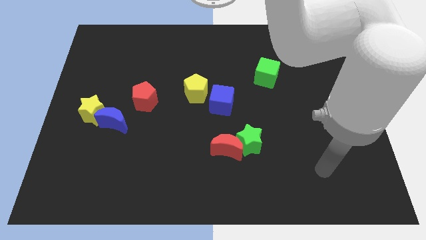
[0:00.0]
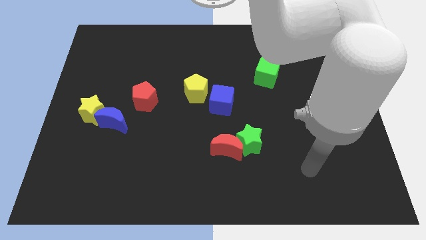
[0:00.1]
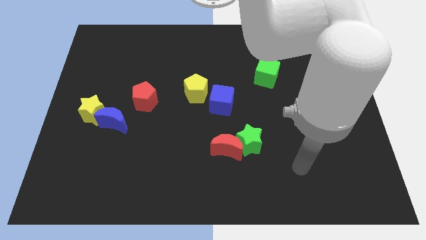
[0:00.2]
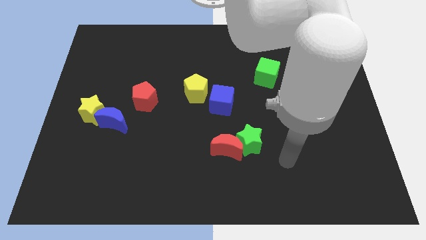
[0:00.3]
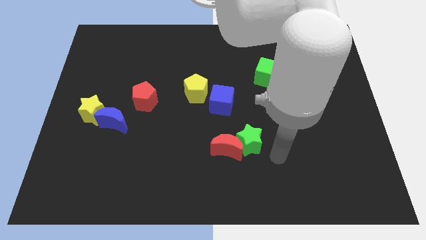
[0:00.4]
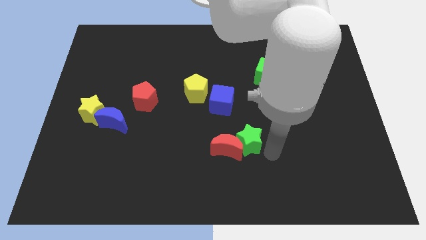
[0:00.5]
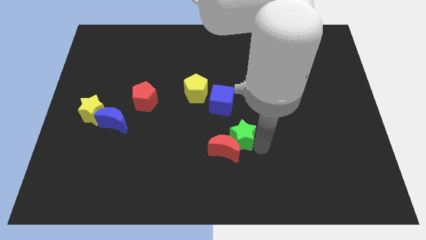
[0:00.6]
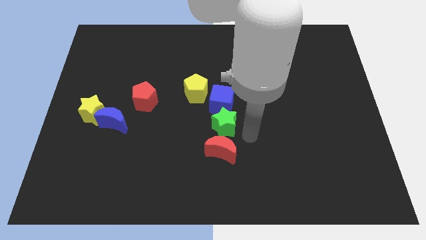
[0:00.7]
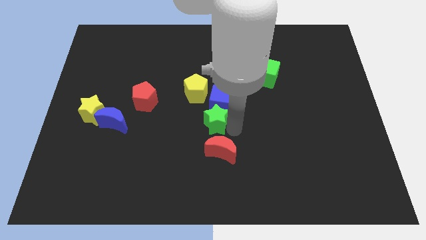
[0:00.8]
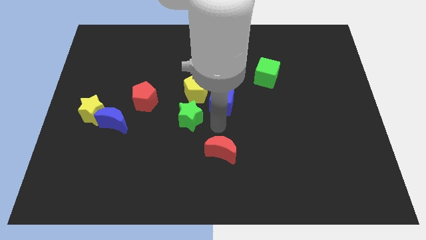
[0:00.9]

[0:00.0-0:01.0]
move the red moon away from the green star

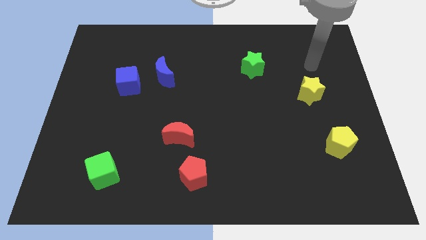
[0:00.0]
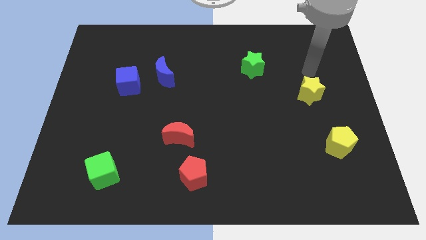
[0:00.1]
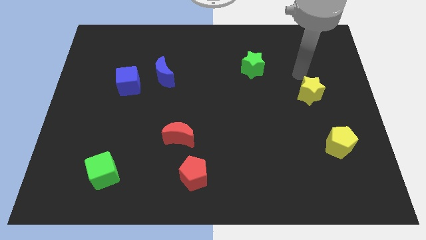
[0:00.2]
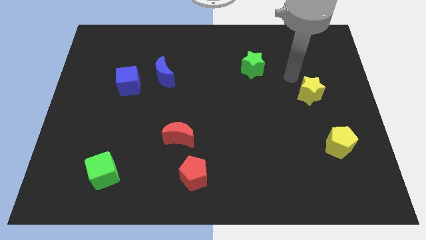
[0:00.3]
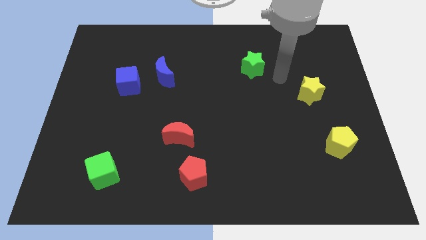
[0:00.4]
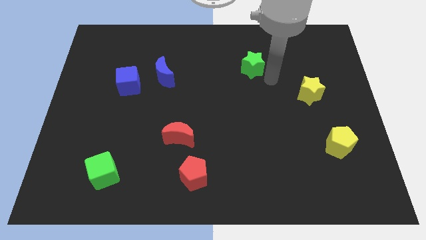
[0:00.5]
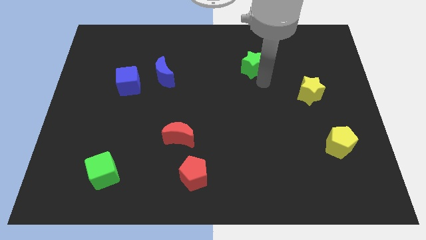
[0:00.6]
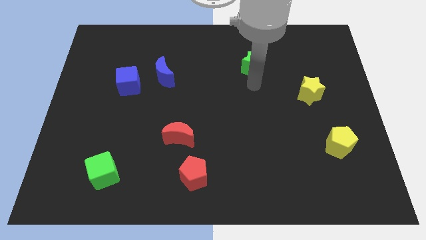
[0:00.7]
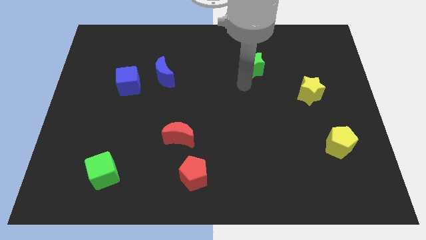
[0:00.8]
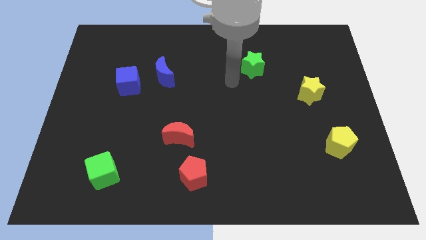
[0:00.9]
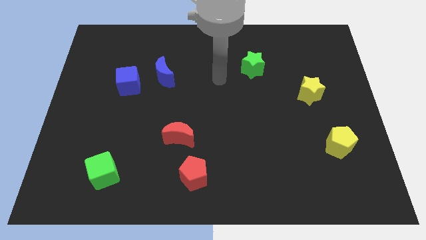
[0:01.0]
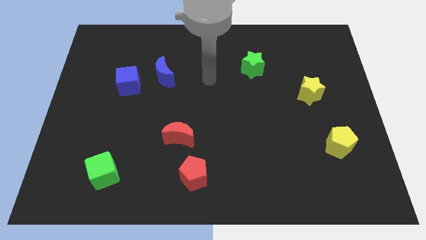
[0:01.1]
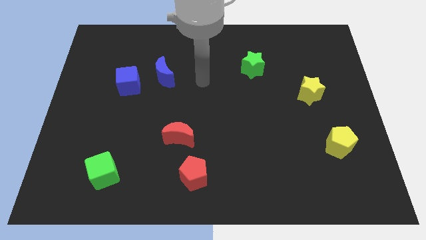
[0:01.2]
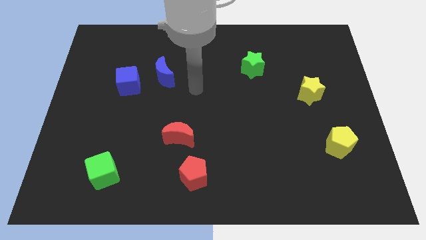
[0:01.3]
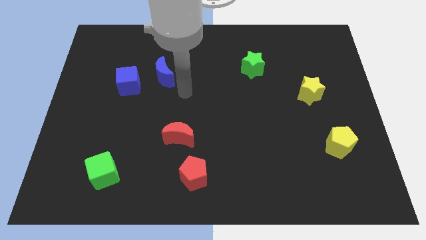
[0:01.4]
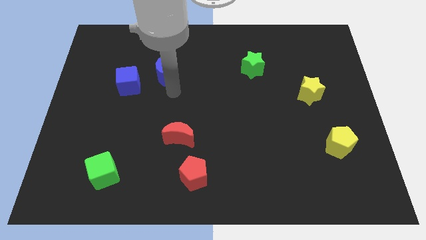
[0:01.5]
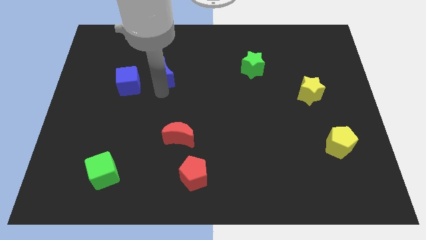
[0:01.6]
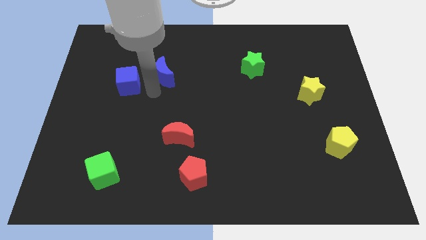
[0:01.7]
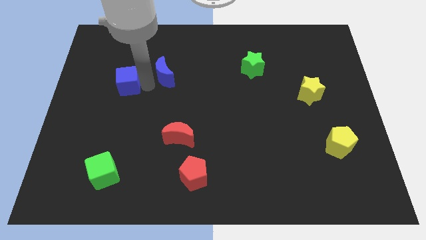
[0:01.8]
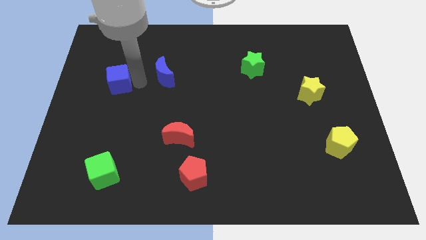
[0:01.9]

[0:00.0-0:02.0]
pull the blue moon apart from the blue cube

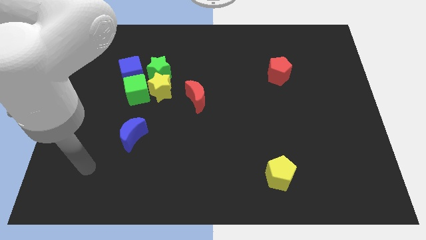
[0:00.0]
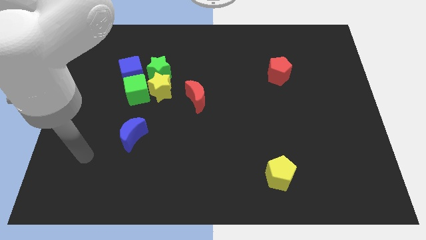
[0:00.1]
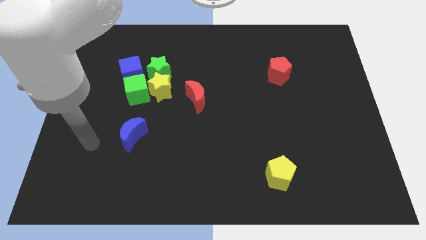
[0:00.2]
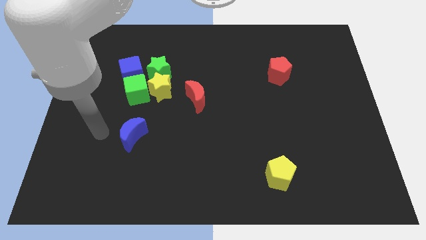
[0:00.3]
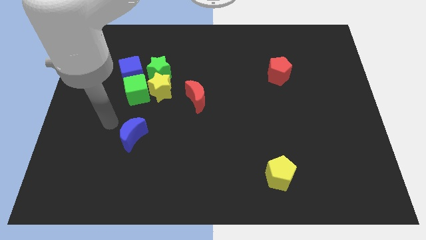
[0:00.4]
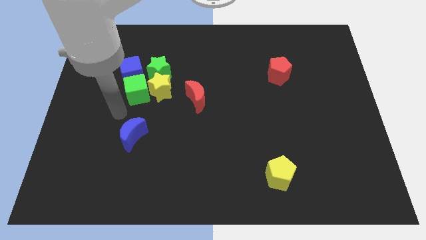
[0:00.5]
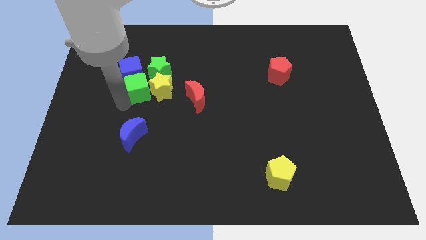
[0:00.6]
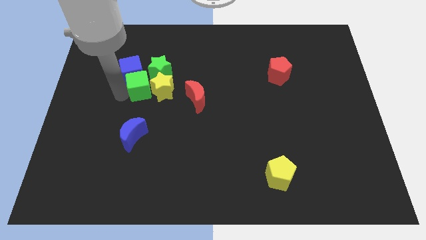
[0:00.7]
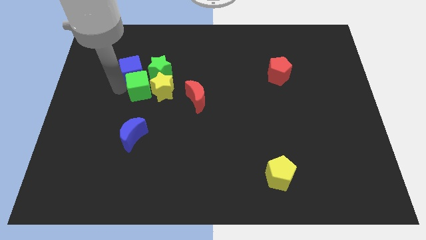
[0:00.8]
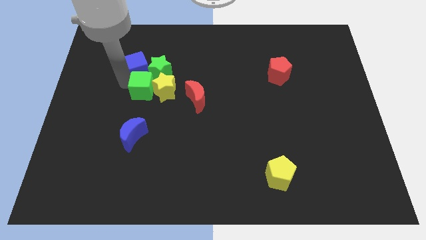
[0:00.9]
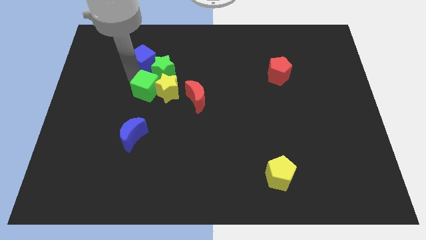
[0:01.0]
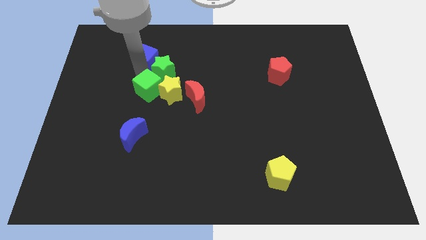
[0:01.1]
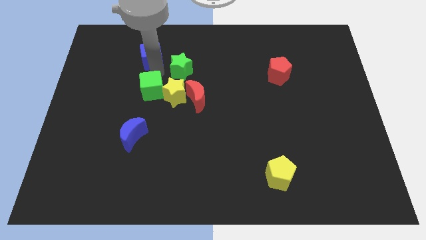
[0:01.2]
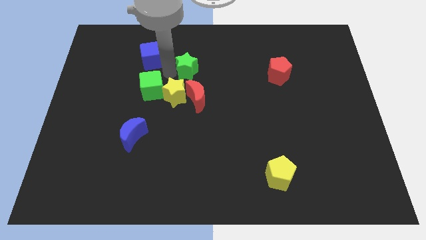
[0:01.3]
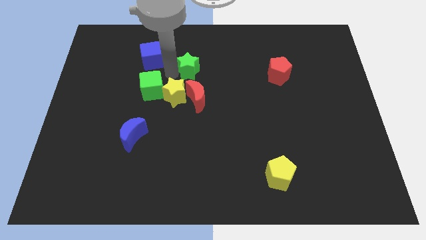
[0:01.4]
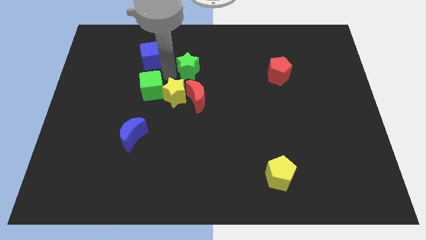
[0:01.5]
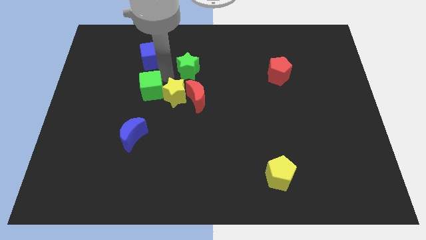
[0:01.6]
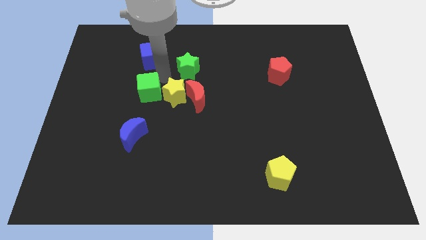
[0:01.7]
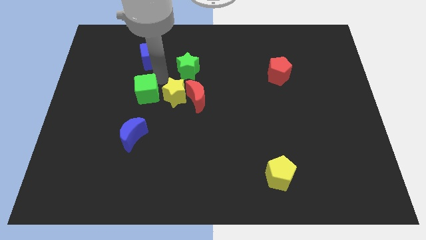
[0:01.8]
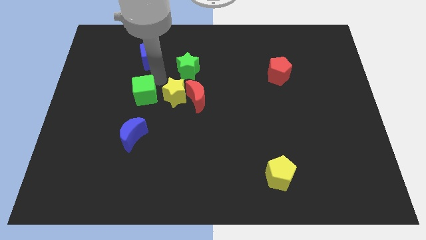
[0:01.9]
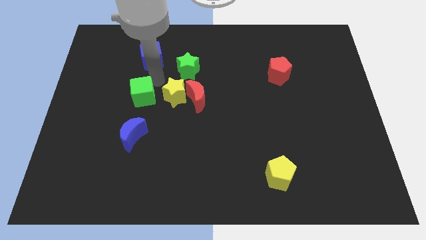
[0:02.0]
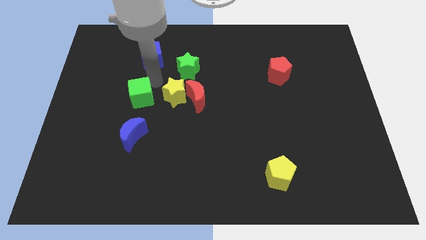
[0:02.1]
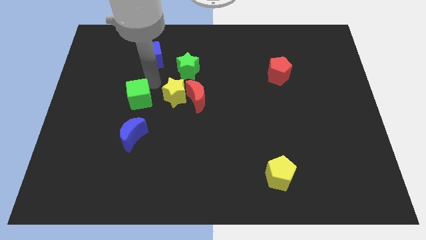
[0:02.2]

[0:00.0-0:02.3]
pull the green cube apart from the group of blocks

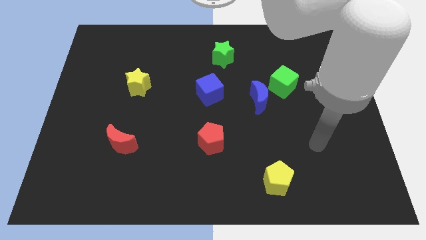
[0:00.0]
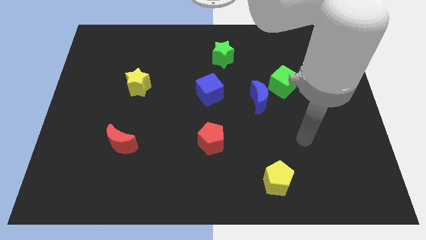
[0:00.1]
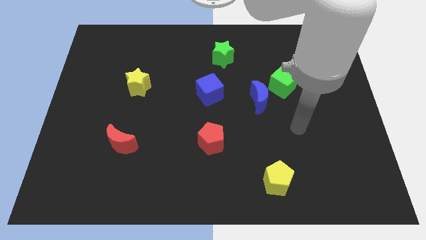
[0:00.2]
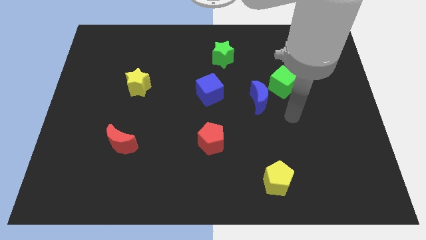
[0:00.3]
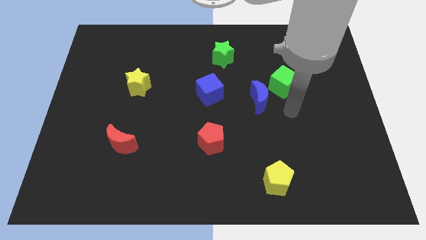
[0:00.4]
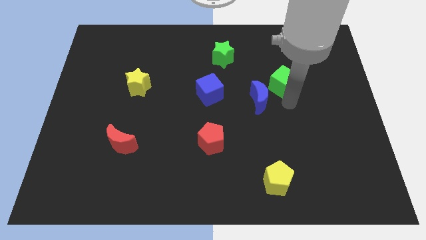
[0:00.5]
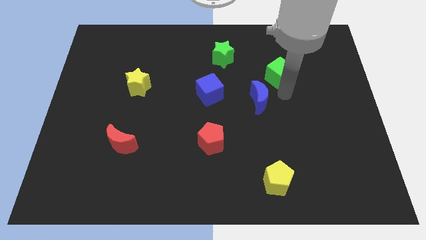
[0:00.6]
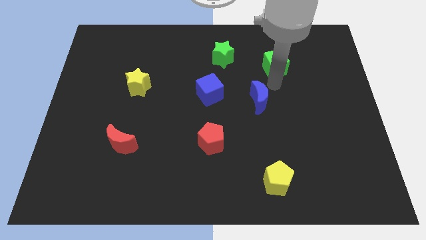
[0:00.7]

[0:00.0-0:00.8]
move the blue moon away from the green cube

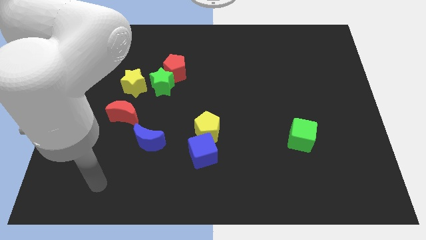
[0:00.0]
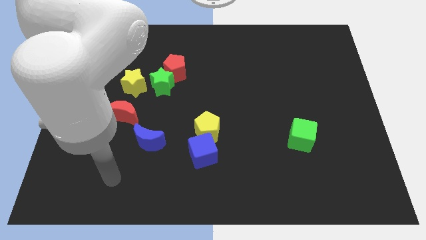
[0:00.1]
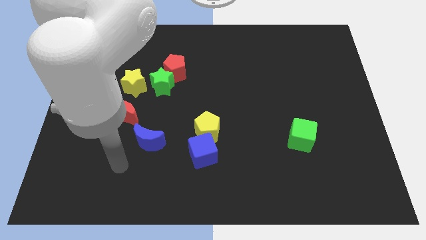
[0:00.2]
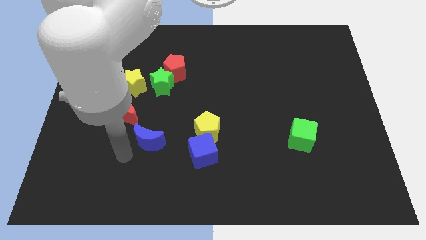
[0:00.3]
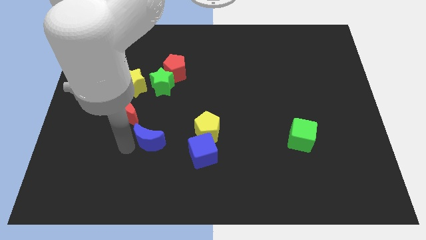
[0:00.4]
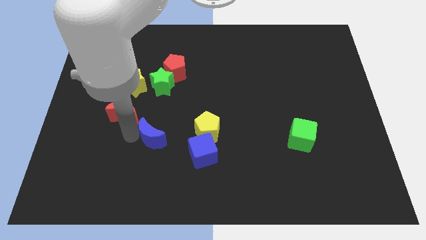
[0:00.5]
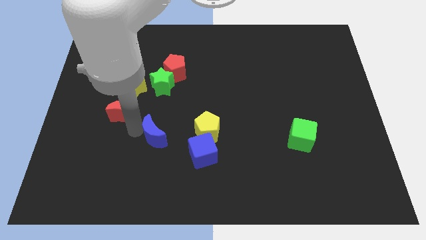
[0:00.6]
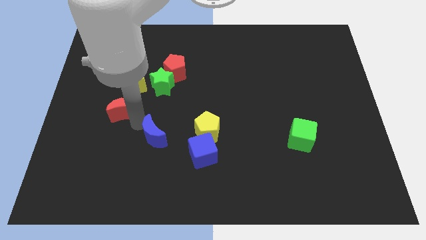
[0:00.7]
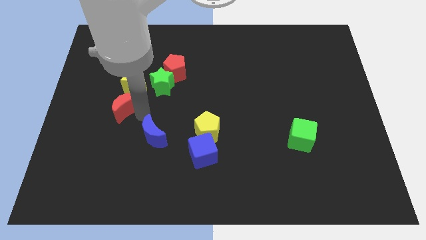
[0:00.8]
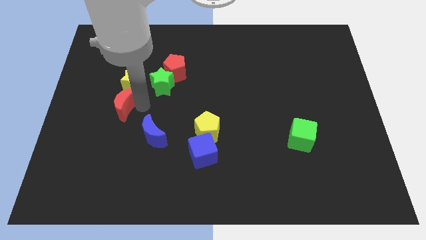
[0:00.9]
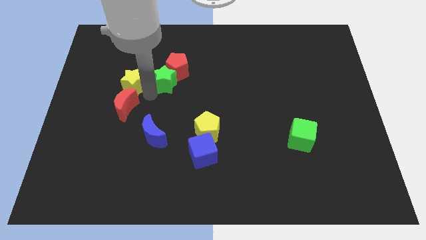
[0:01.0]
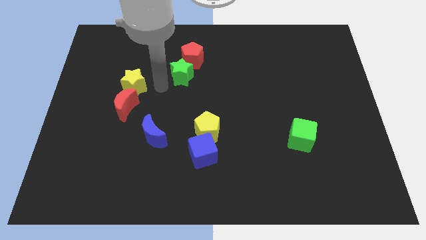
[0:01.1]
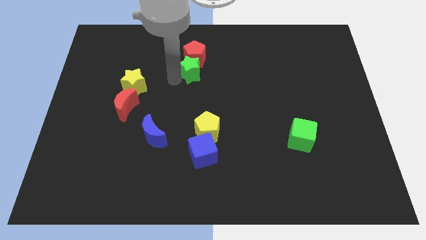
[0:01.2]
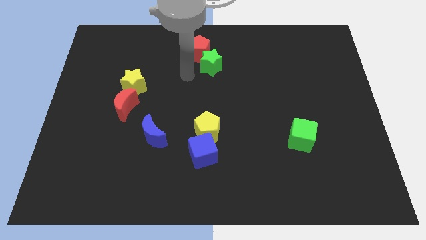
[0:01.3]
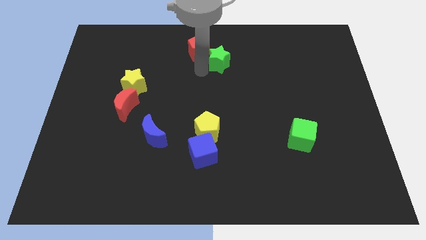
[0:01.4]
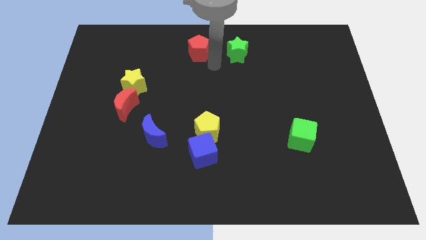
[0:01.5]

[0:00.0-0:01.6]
separate the red pentagon from the green star

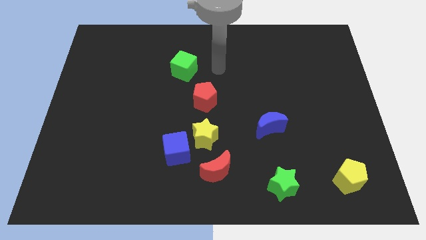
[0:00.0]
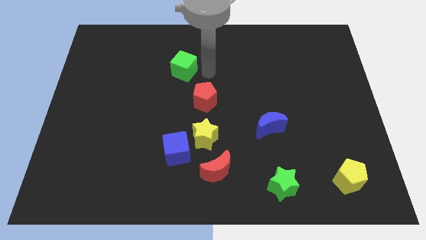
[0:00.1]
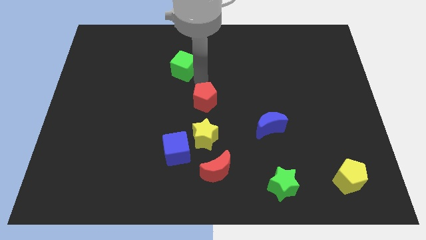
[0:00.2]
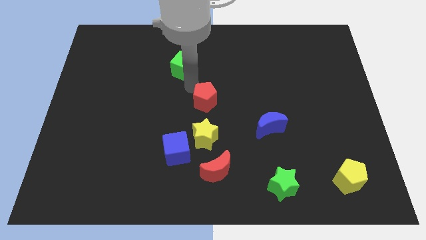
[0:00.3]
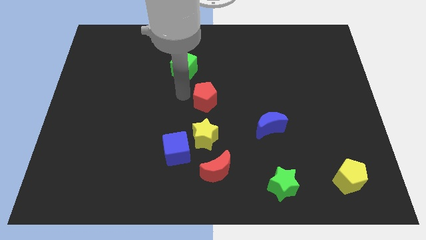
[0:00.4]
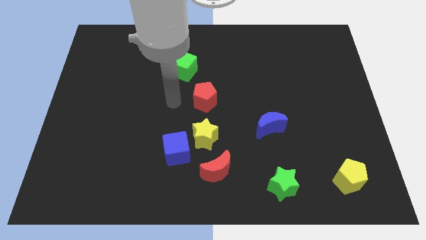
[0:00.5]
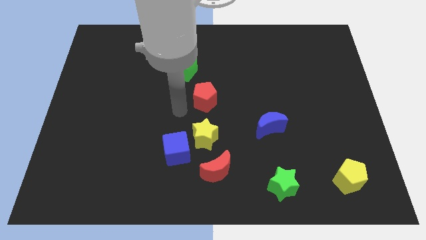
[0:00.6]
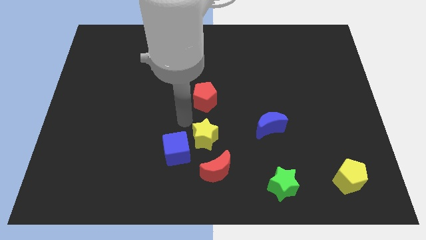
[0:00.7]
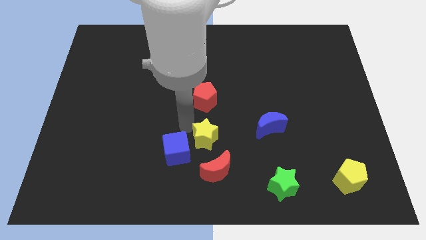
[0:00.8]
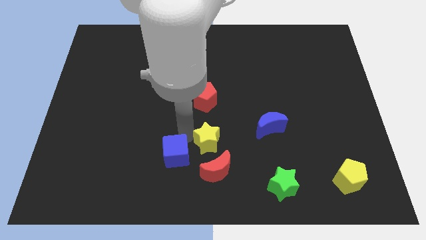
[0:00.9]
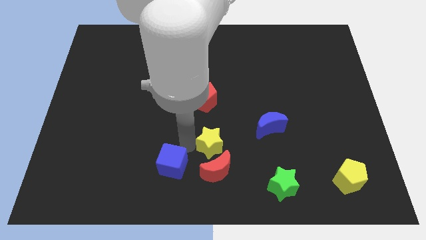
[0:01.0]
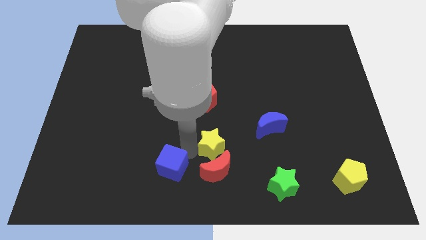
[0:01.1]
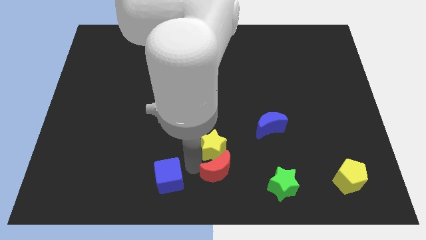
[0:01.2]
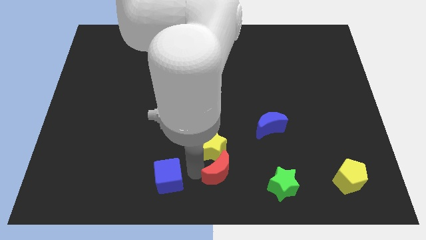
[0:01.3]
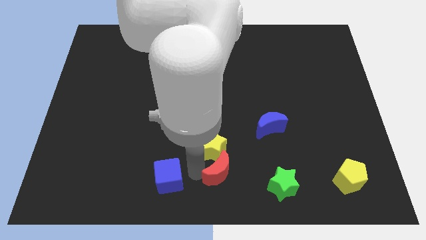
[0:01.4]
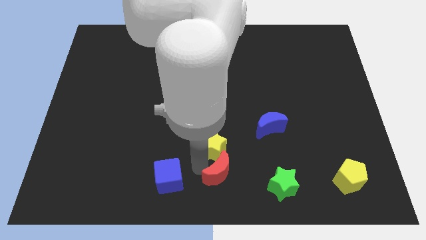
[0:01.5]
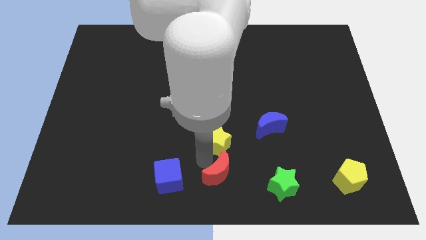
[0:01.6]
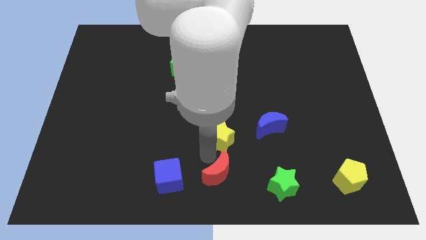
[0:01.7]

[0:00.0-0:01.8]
separate the yellow star from the blue cube and red moon
